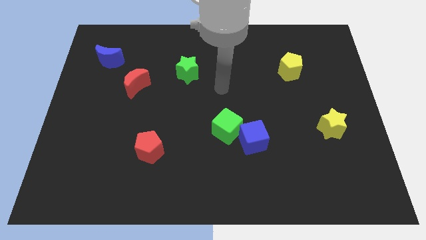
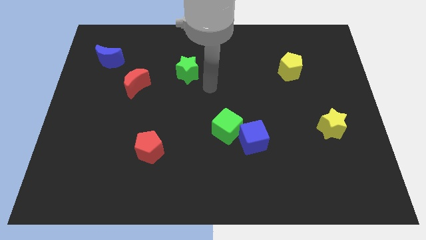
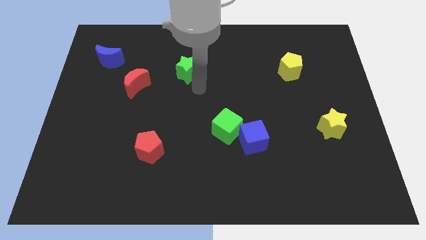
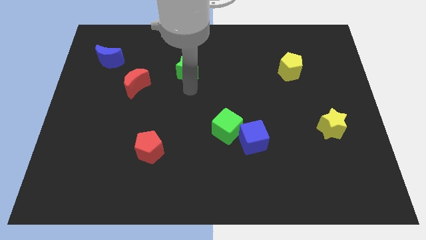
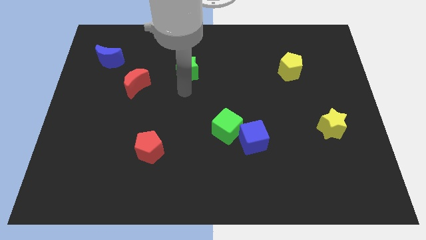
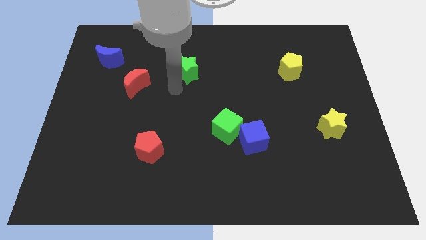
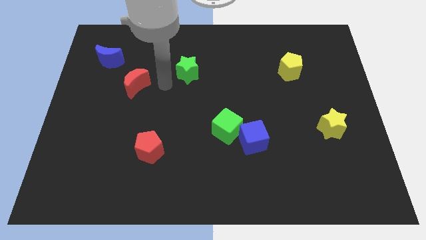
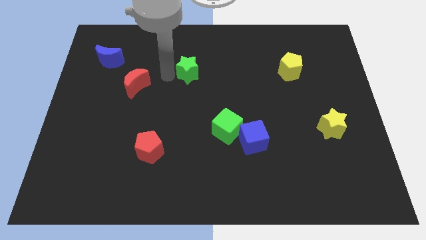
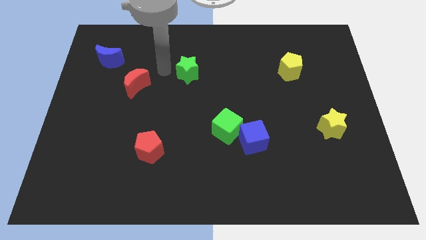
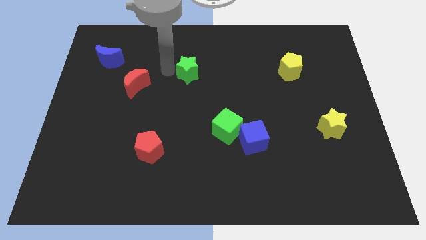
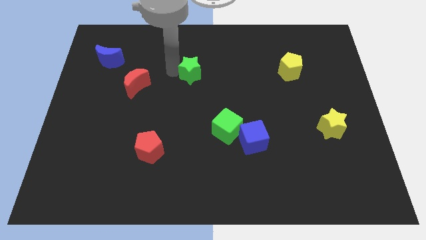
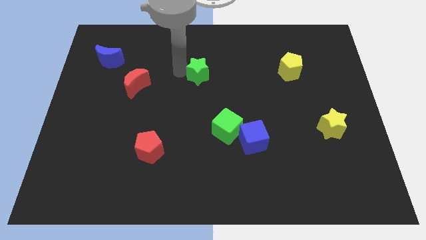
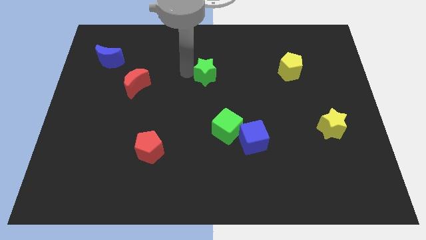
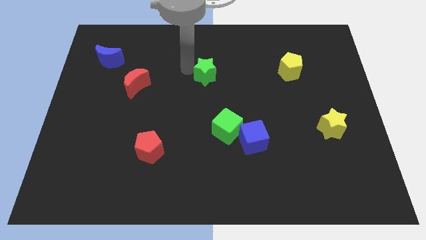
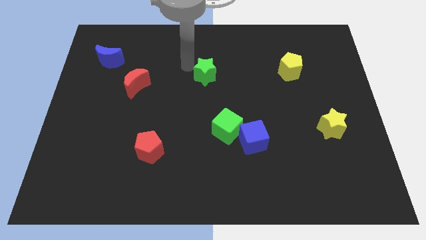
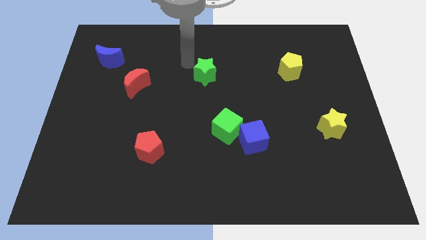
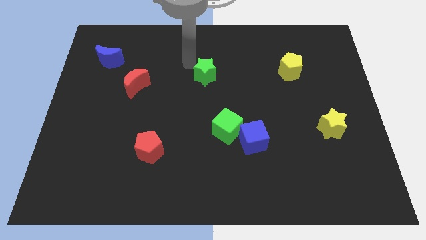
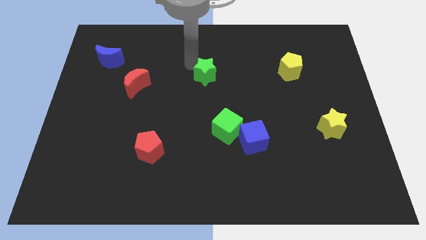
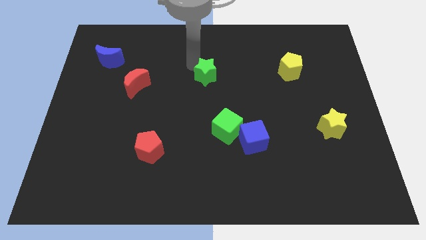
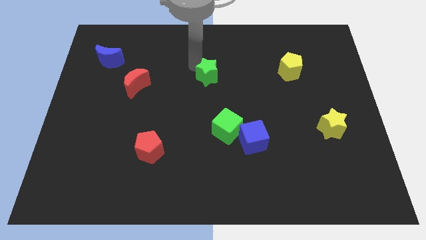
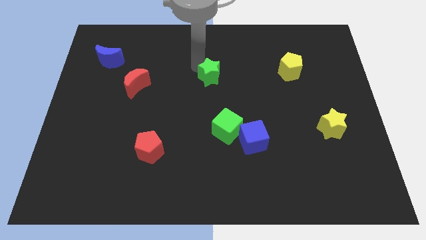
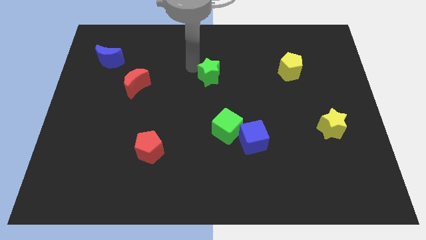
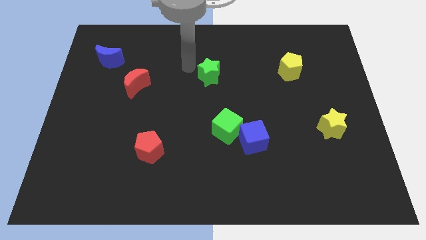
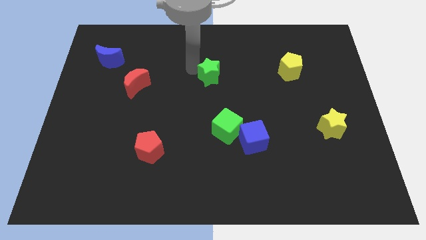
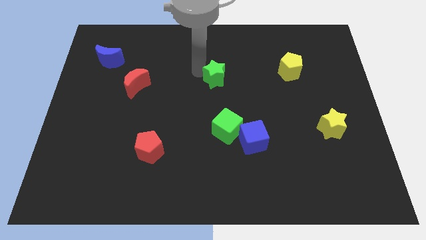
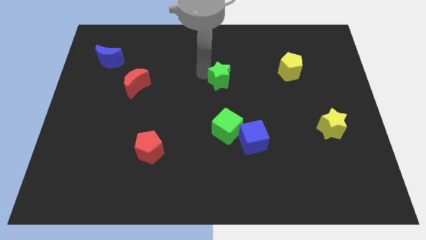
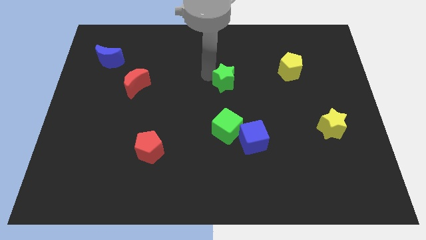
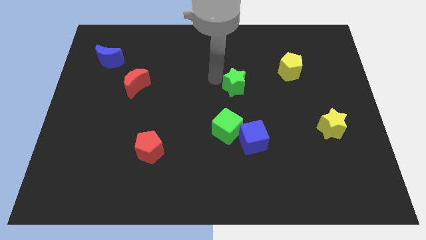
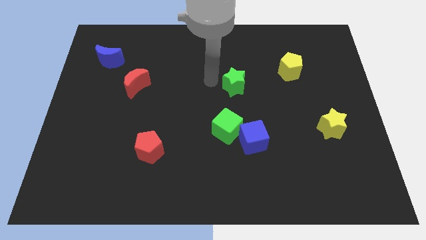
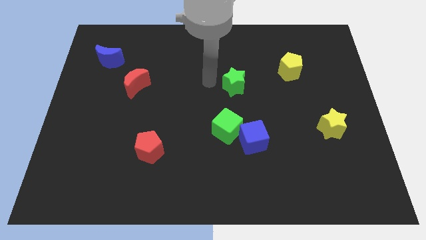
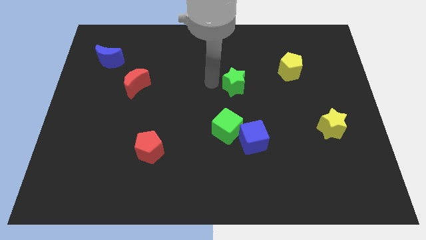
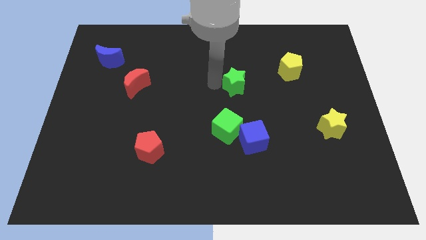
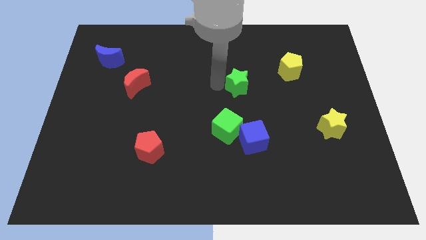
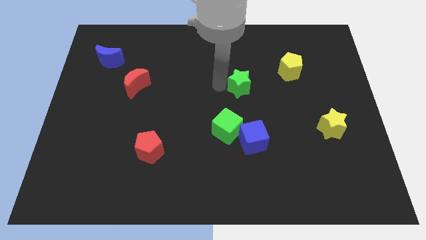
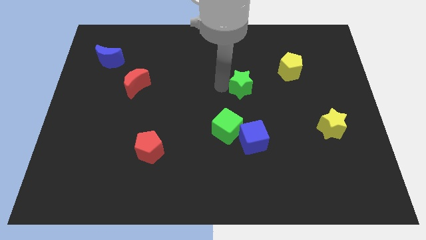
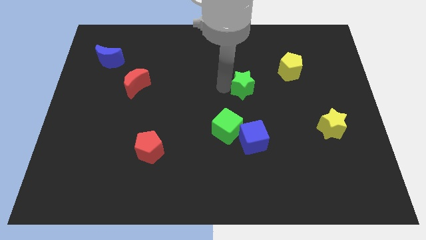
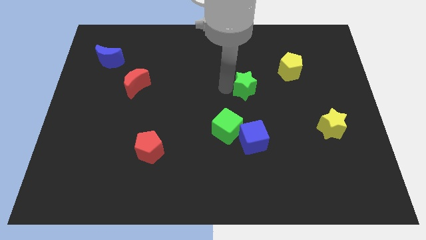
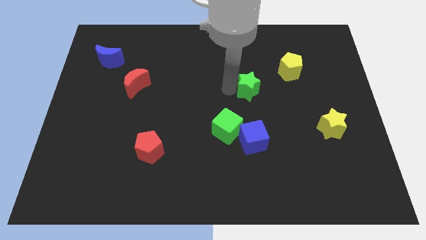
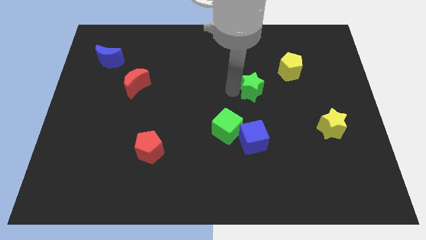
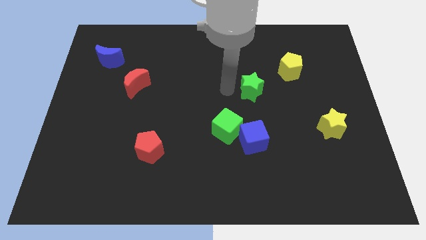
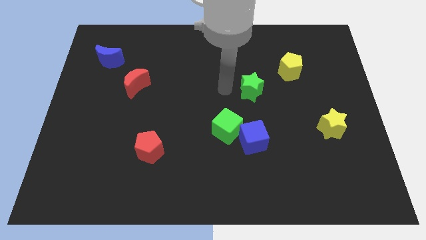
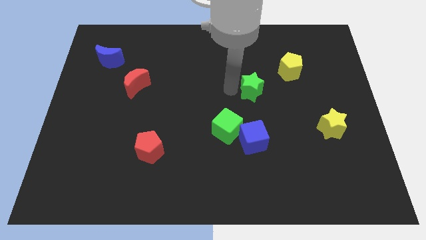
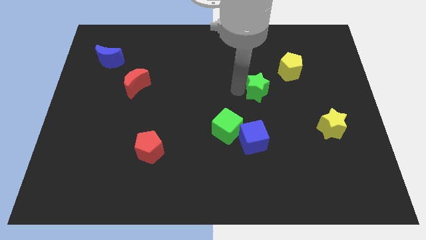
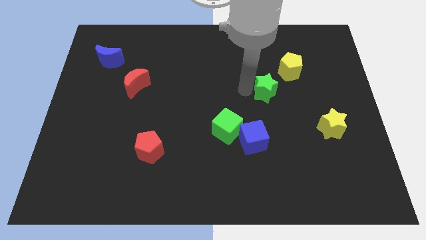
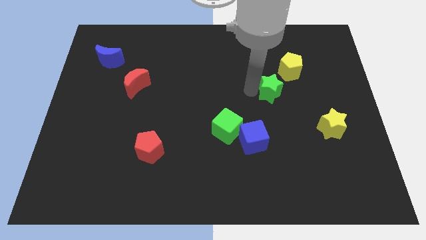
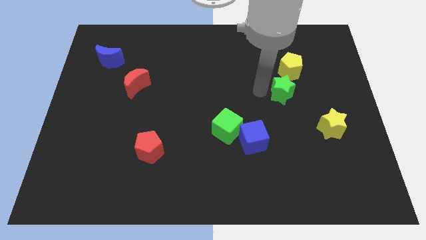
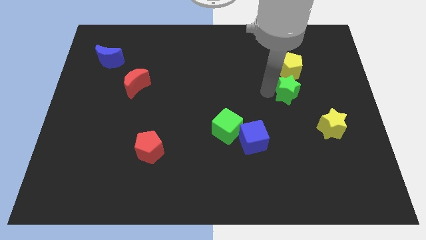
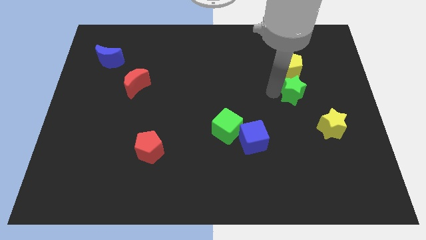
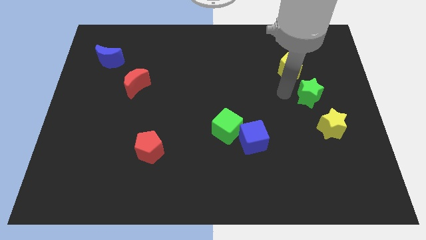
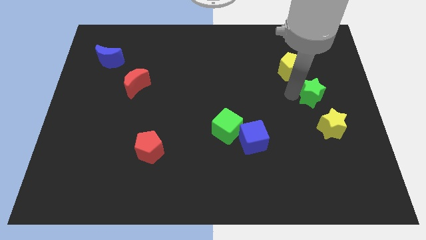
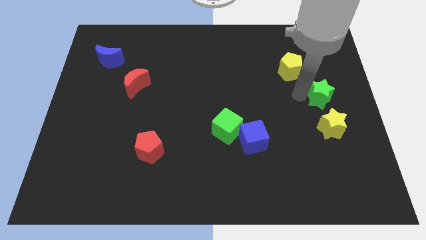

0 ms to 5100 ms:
put the green star to the right side
